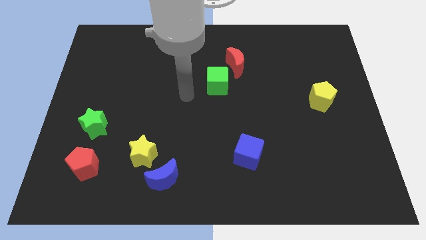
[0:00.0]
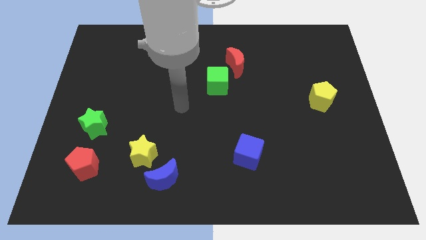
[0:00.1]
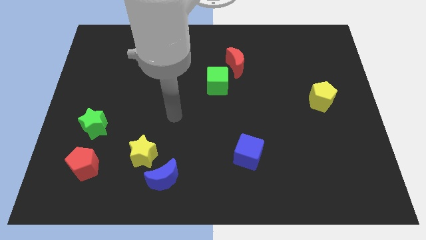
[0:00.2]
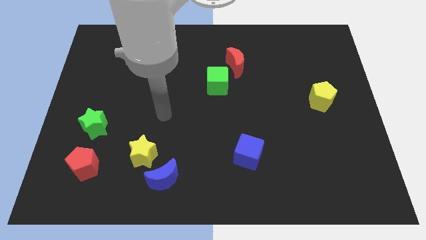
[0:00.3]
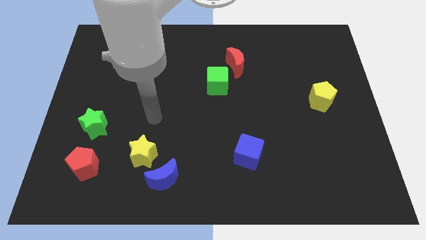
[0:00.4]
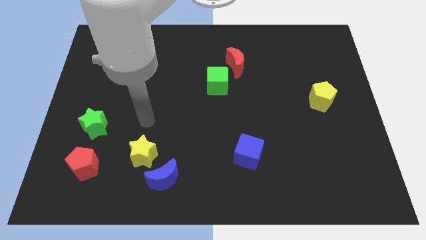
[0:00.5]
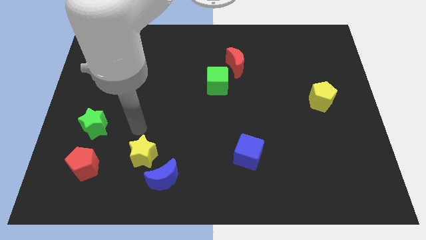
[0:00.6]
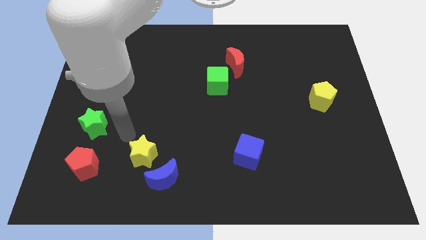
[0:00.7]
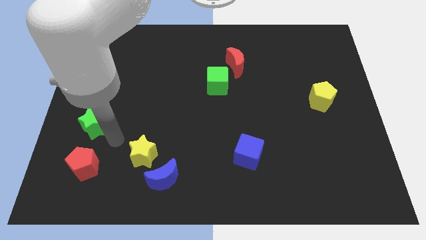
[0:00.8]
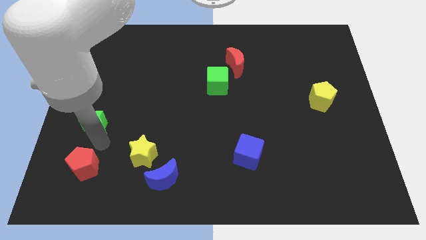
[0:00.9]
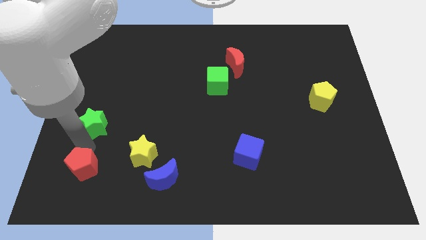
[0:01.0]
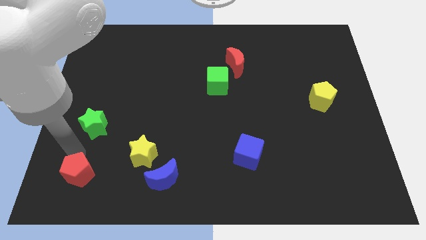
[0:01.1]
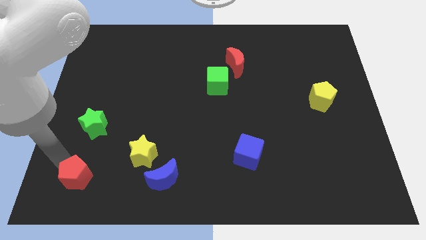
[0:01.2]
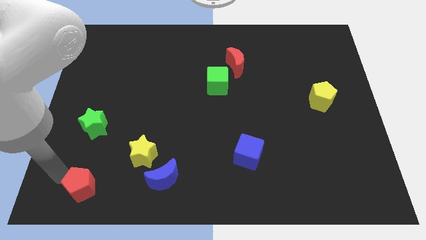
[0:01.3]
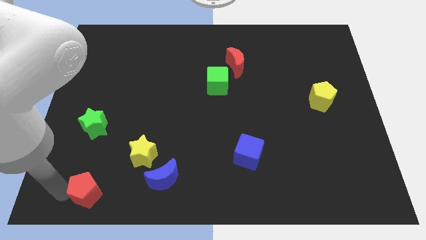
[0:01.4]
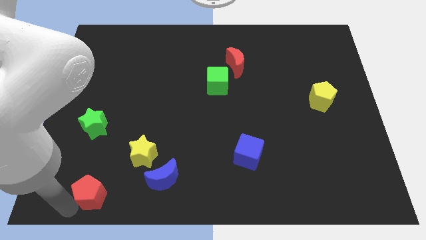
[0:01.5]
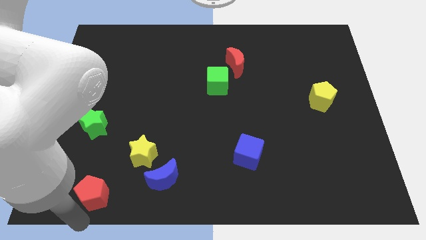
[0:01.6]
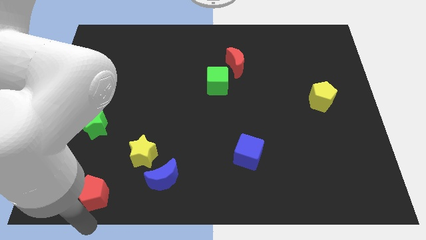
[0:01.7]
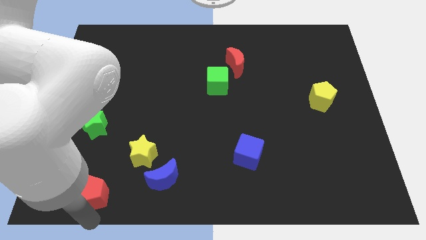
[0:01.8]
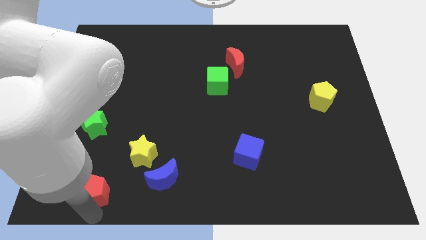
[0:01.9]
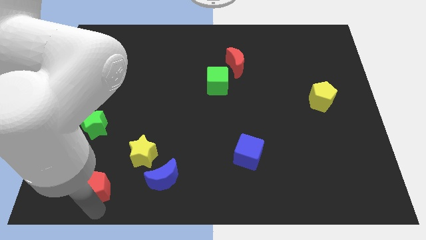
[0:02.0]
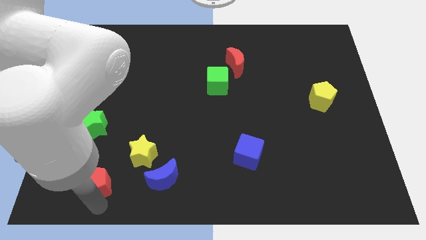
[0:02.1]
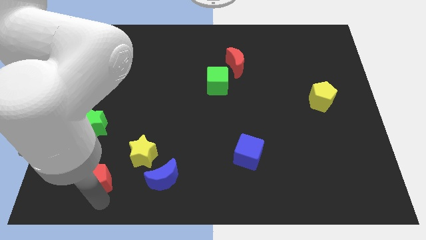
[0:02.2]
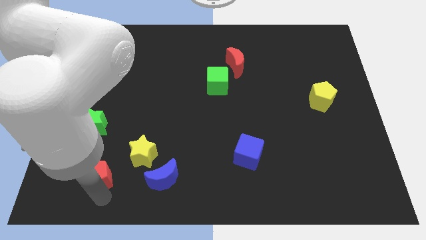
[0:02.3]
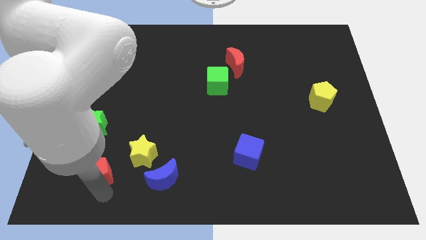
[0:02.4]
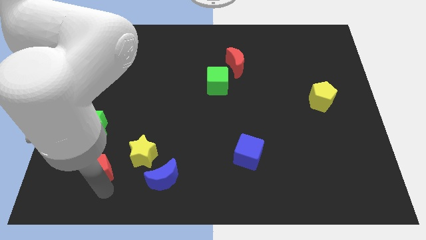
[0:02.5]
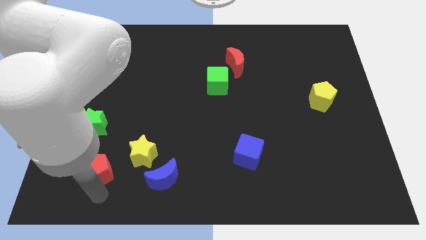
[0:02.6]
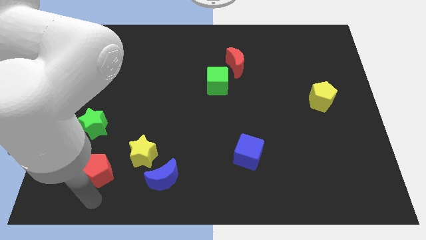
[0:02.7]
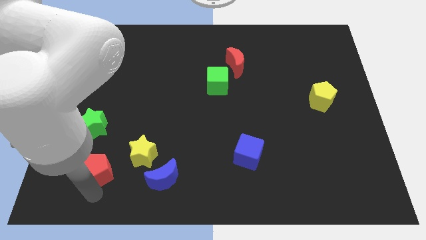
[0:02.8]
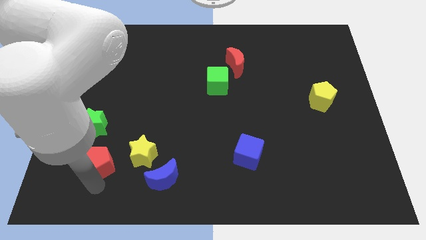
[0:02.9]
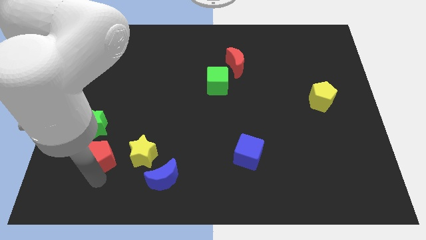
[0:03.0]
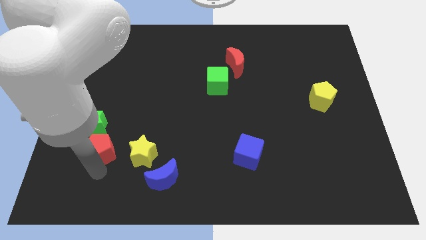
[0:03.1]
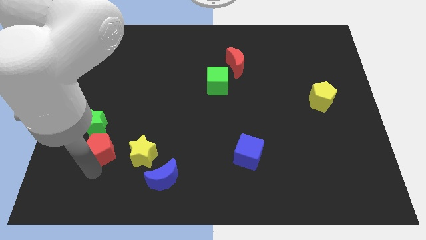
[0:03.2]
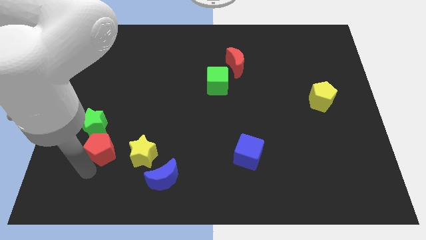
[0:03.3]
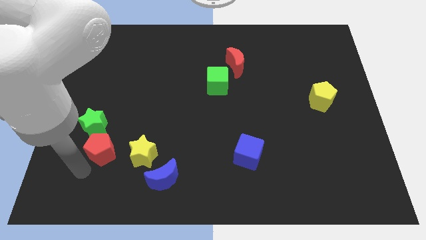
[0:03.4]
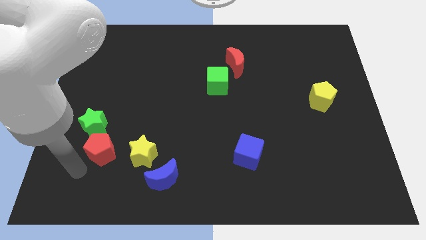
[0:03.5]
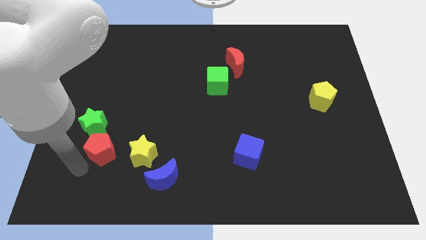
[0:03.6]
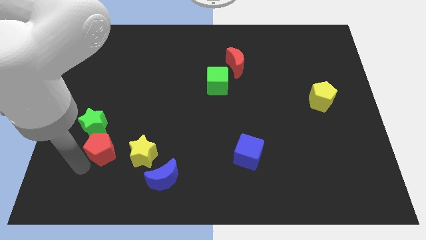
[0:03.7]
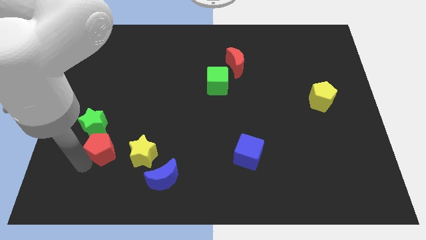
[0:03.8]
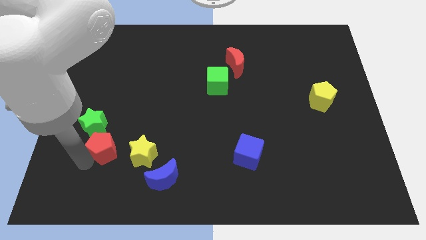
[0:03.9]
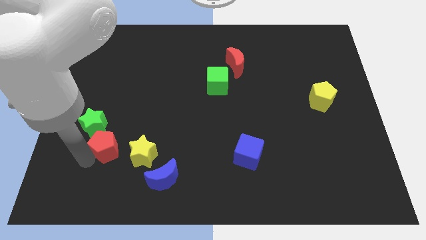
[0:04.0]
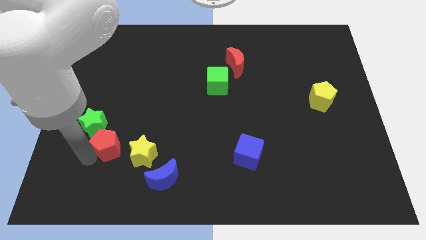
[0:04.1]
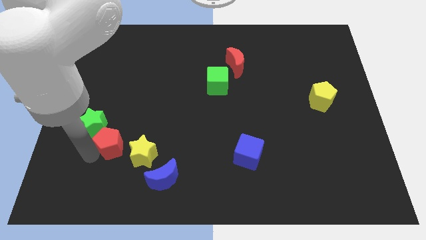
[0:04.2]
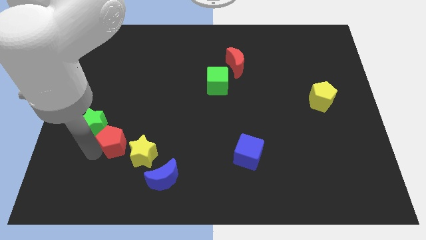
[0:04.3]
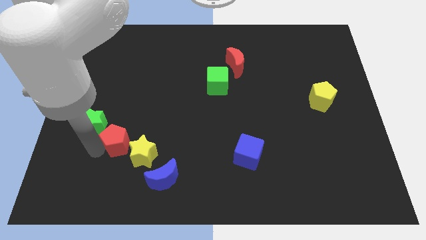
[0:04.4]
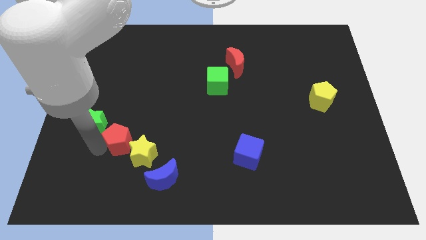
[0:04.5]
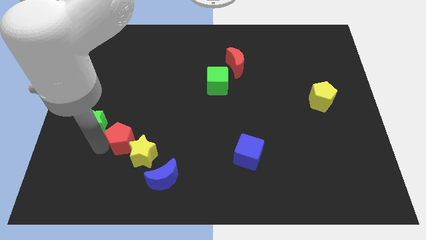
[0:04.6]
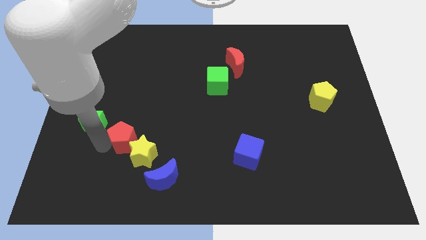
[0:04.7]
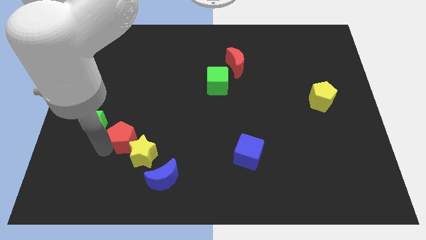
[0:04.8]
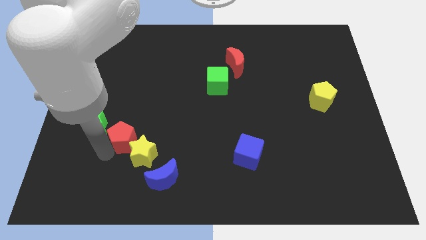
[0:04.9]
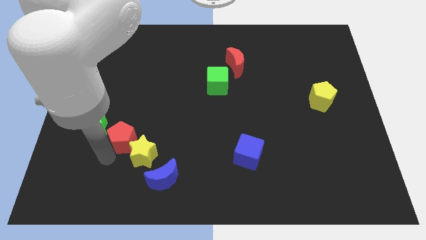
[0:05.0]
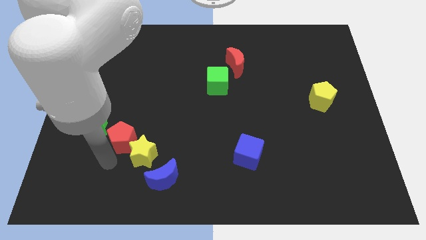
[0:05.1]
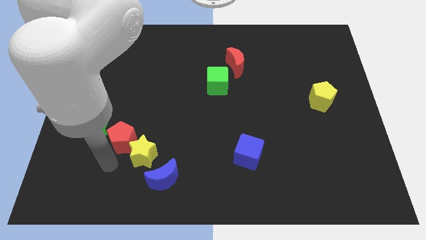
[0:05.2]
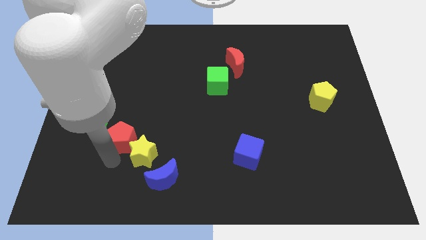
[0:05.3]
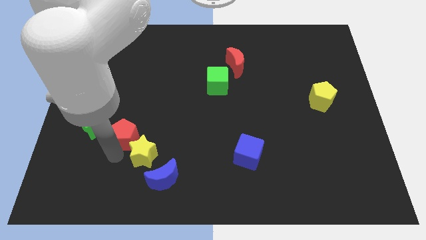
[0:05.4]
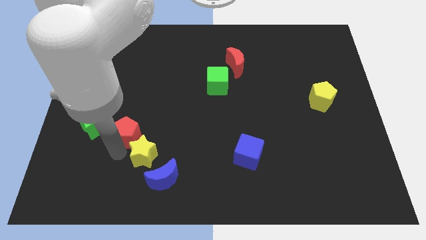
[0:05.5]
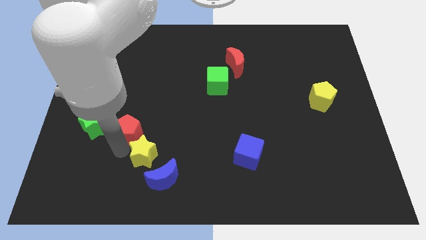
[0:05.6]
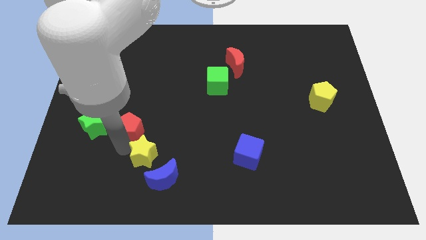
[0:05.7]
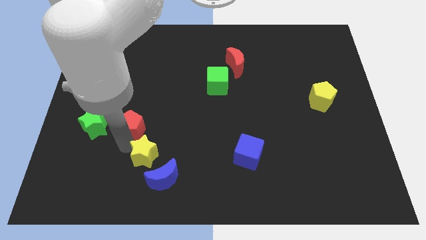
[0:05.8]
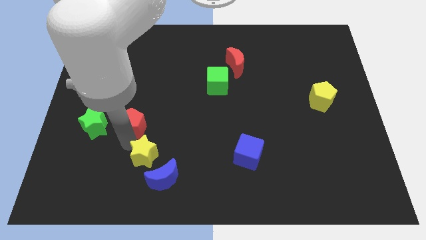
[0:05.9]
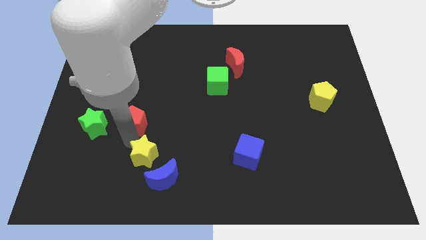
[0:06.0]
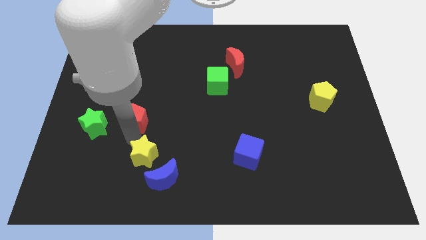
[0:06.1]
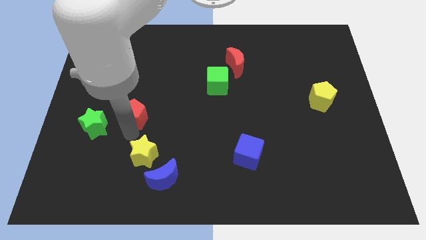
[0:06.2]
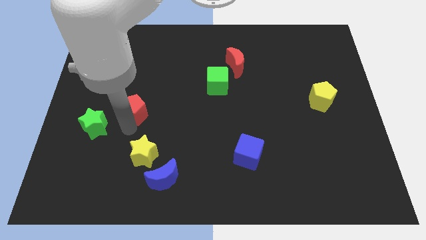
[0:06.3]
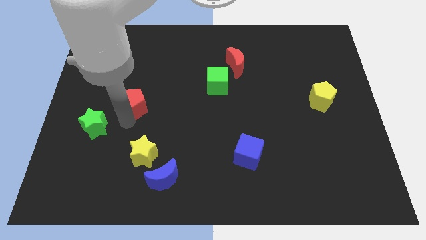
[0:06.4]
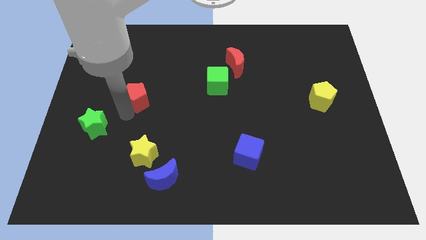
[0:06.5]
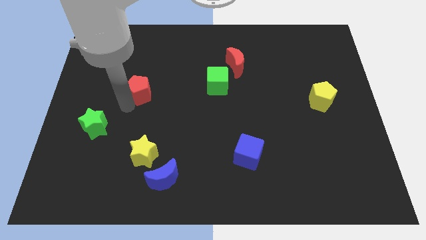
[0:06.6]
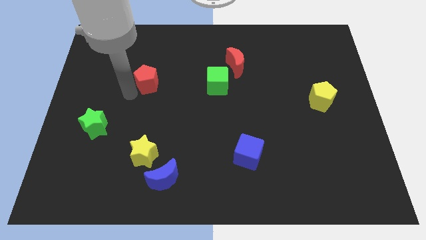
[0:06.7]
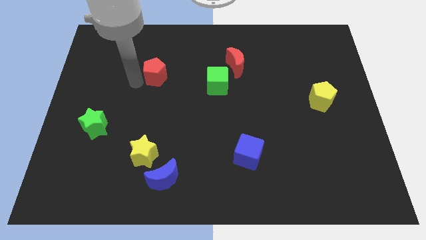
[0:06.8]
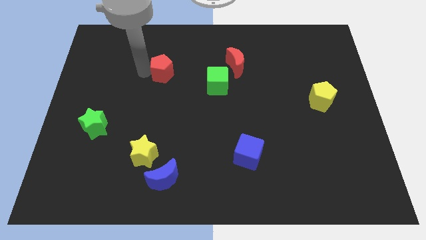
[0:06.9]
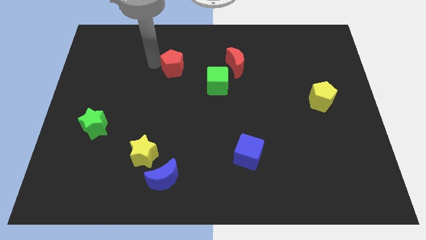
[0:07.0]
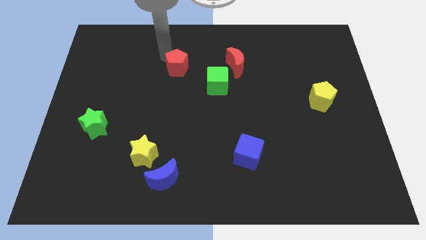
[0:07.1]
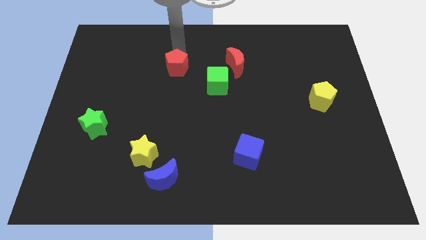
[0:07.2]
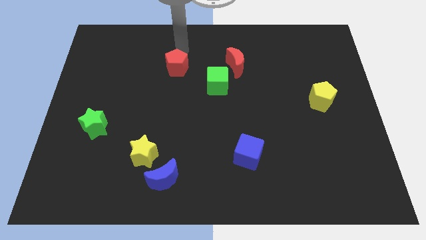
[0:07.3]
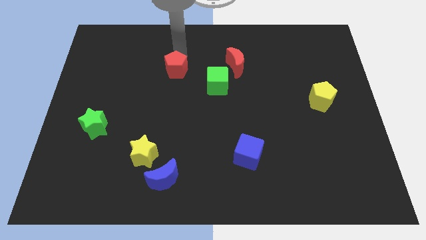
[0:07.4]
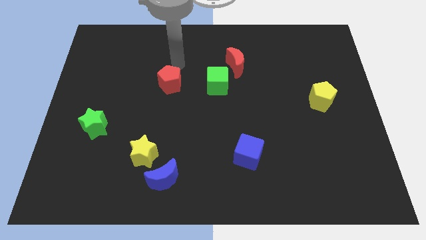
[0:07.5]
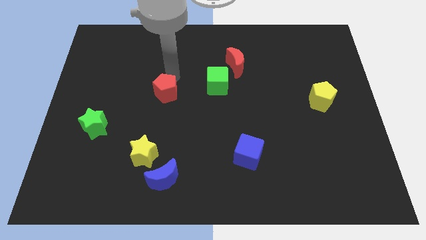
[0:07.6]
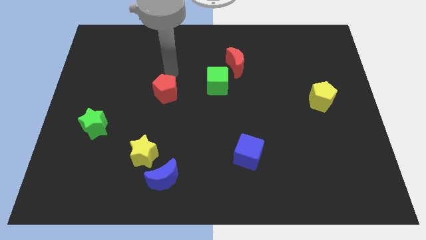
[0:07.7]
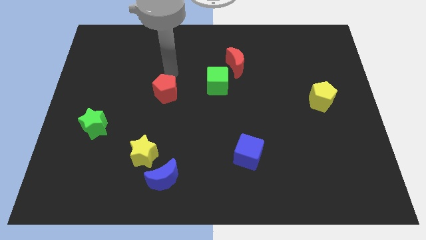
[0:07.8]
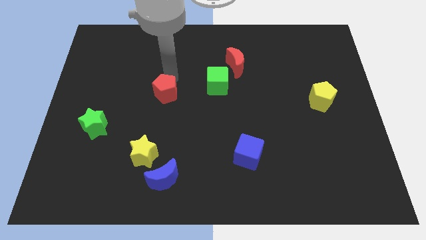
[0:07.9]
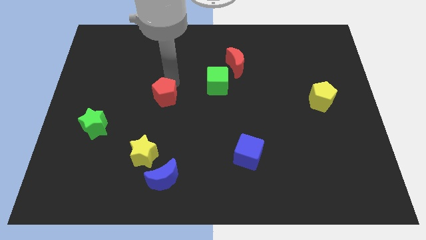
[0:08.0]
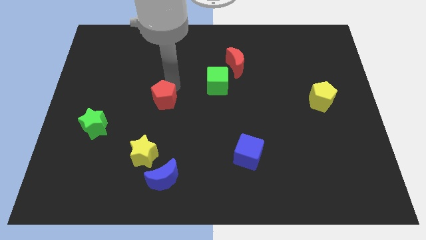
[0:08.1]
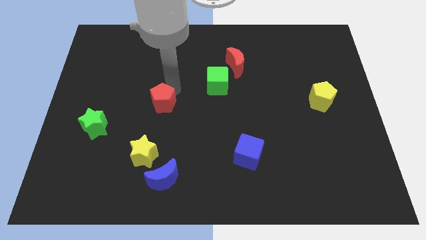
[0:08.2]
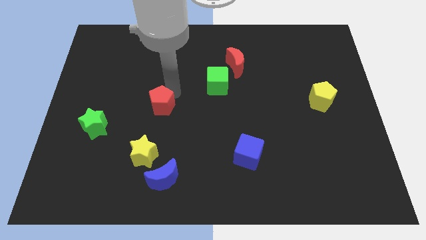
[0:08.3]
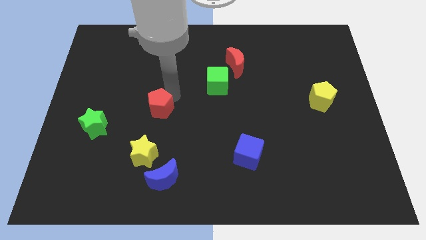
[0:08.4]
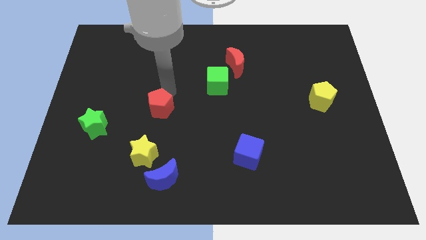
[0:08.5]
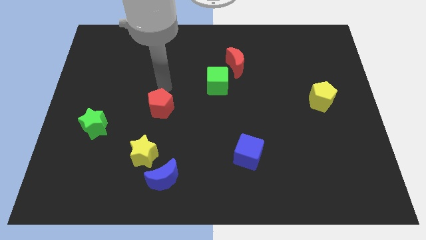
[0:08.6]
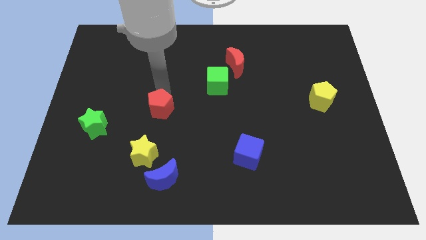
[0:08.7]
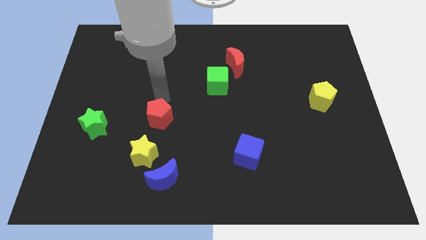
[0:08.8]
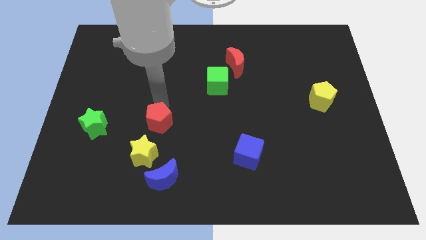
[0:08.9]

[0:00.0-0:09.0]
slide the red pentagon slightly to the right
